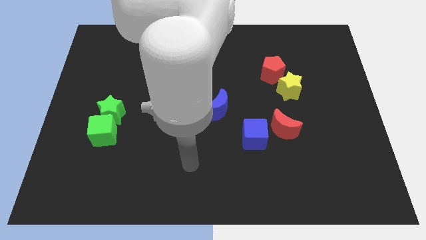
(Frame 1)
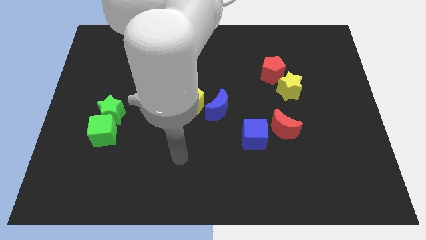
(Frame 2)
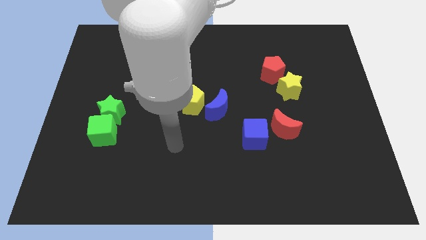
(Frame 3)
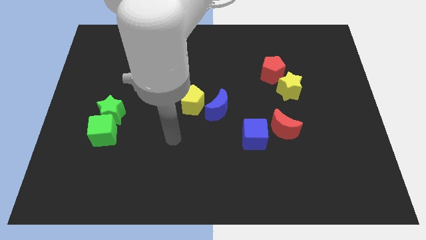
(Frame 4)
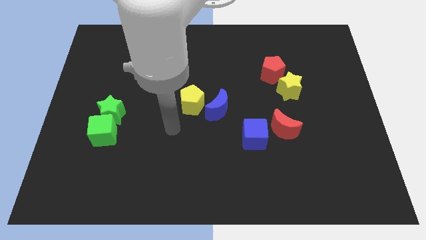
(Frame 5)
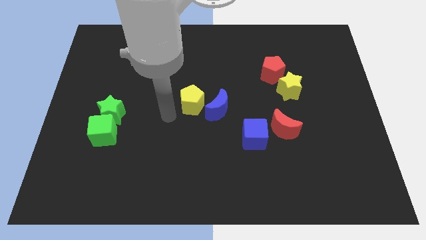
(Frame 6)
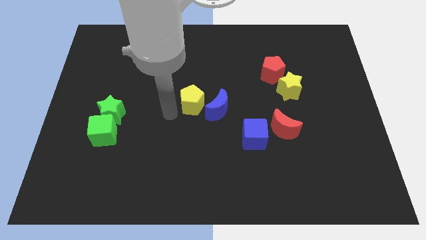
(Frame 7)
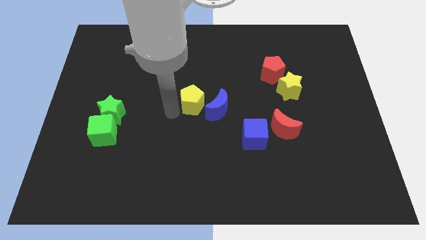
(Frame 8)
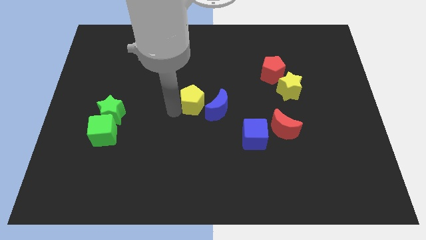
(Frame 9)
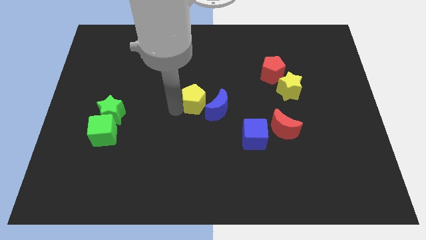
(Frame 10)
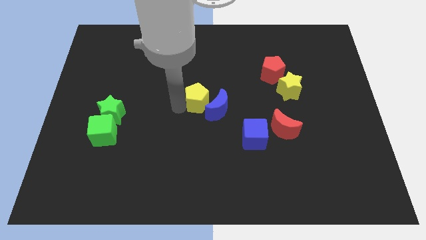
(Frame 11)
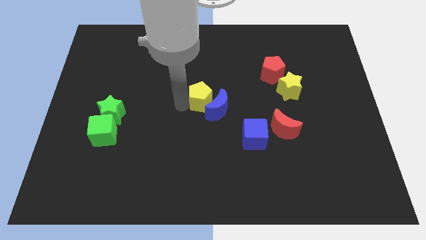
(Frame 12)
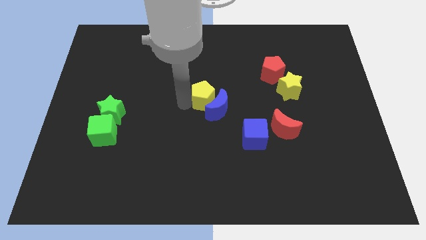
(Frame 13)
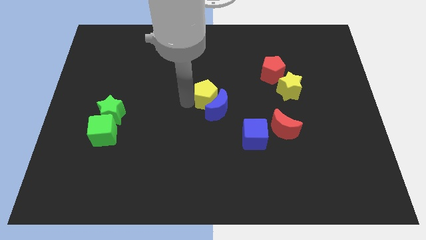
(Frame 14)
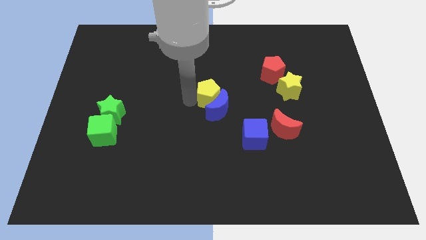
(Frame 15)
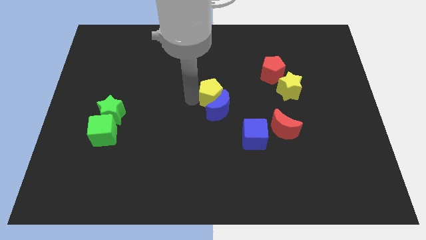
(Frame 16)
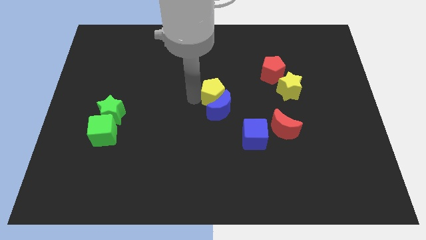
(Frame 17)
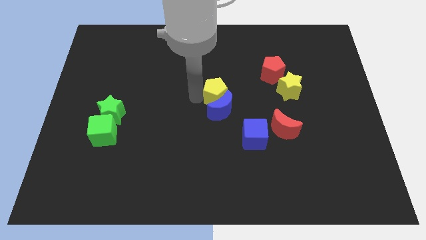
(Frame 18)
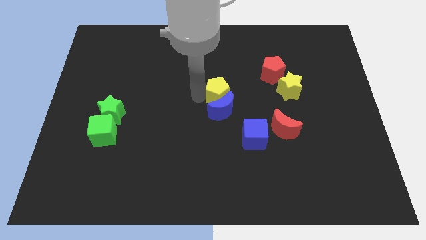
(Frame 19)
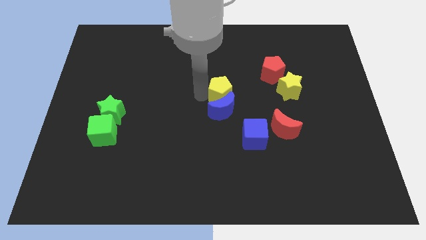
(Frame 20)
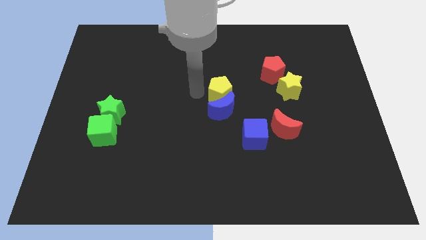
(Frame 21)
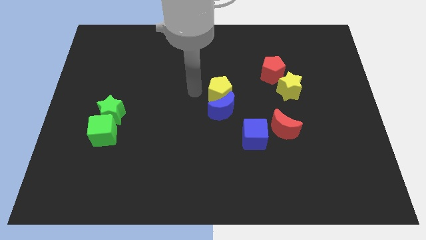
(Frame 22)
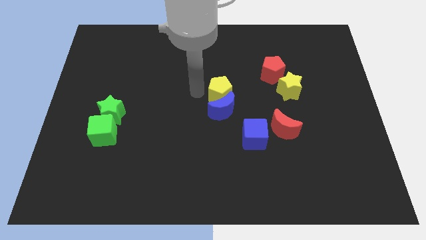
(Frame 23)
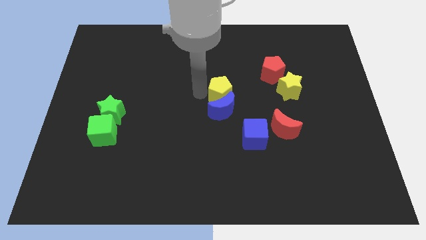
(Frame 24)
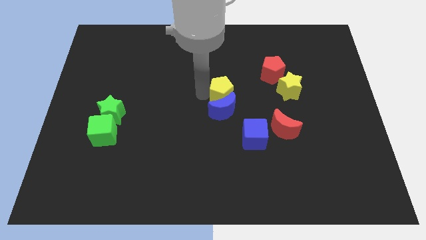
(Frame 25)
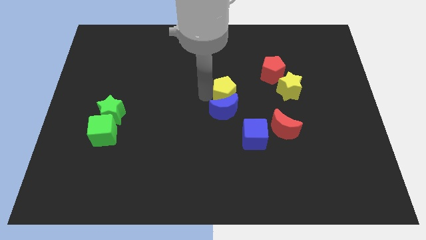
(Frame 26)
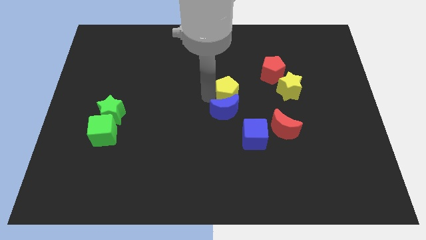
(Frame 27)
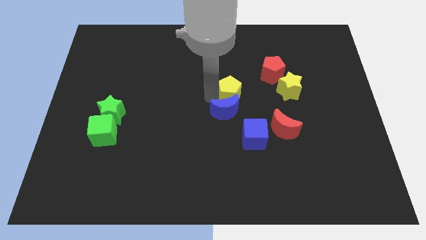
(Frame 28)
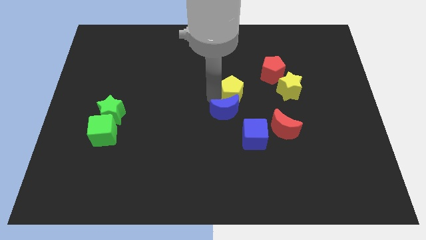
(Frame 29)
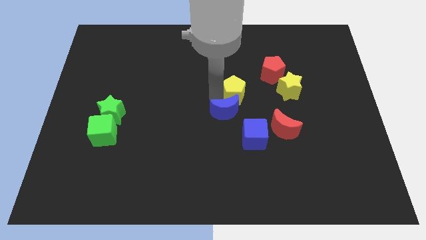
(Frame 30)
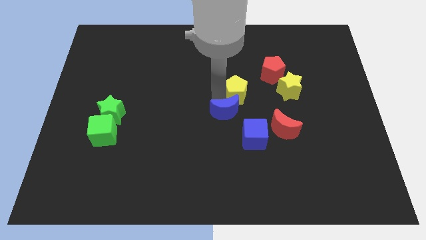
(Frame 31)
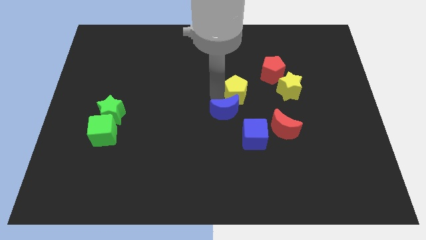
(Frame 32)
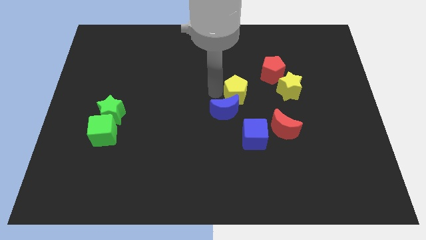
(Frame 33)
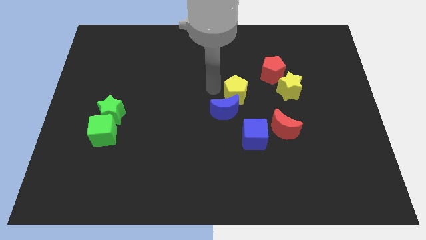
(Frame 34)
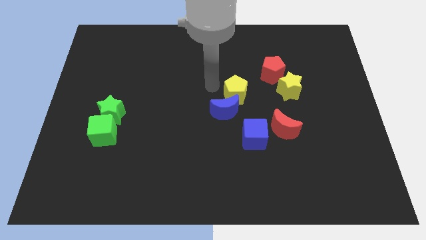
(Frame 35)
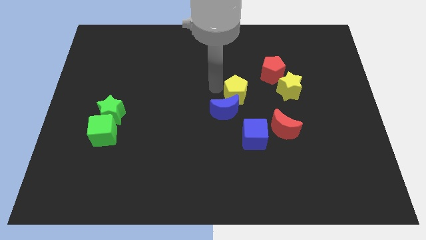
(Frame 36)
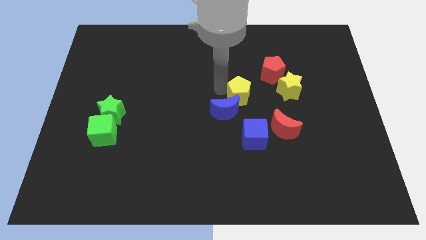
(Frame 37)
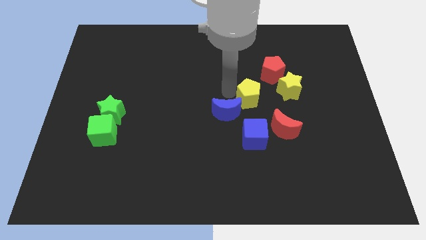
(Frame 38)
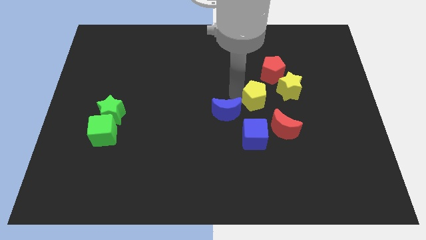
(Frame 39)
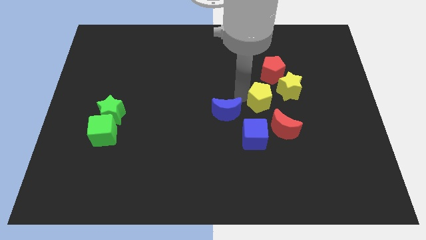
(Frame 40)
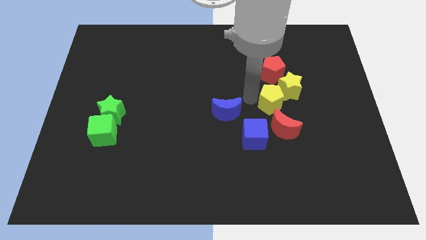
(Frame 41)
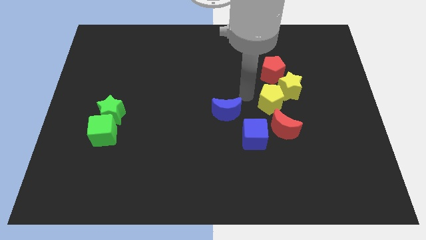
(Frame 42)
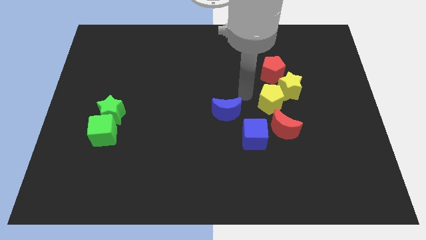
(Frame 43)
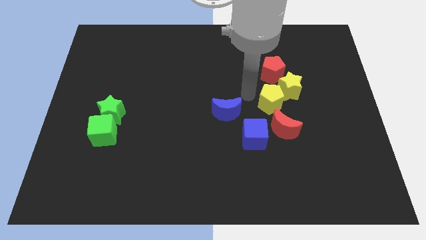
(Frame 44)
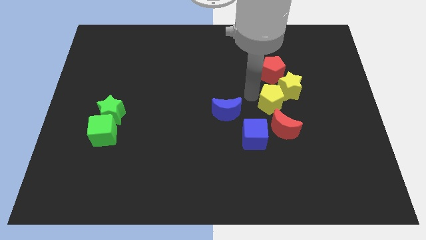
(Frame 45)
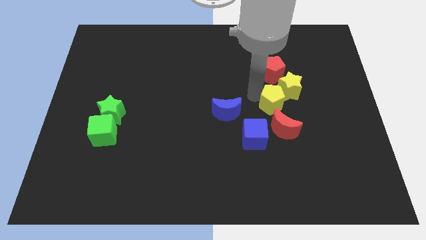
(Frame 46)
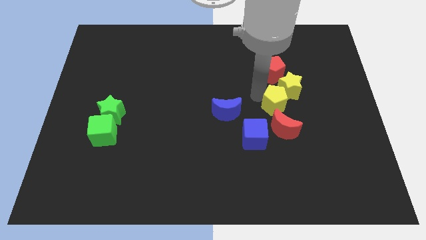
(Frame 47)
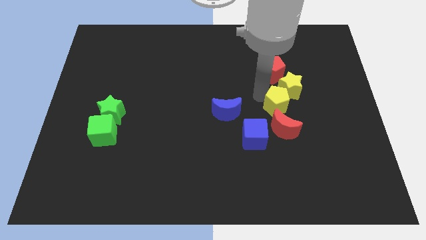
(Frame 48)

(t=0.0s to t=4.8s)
push the yellow pentagon to the right

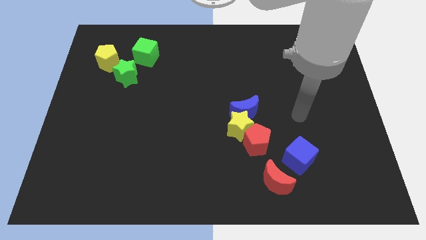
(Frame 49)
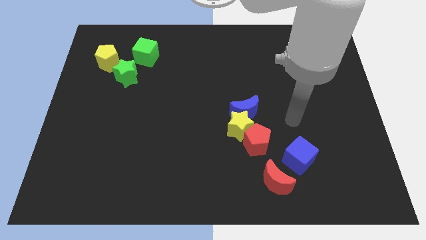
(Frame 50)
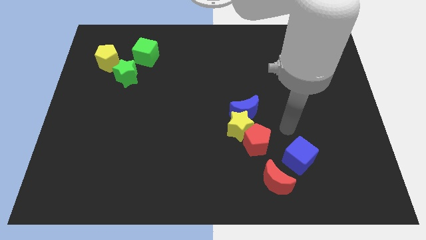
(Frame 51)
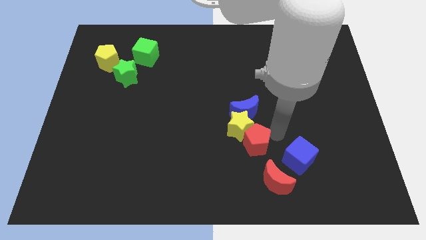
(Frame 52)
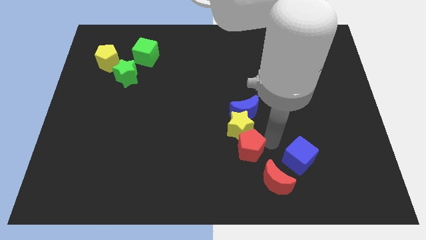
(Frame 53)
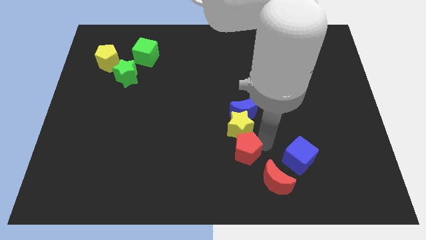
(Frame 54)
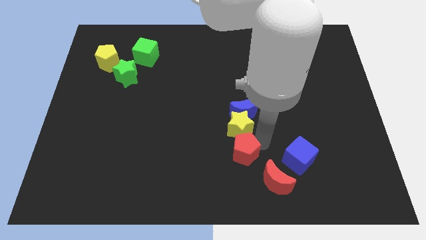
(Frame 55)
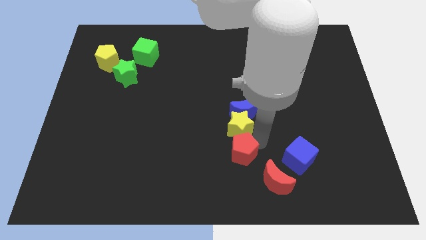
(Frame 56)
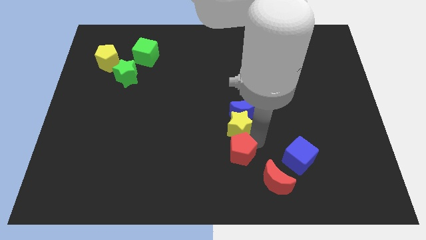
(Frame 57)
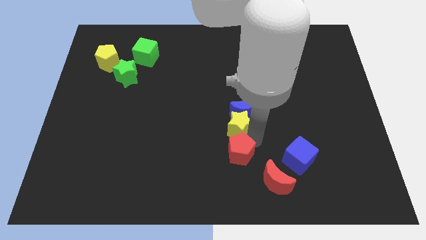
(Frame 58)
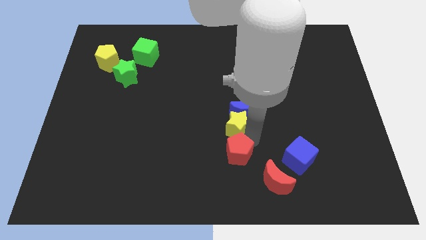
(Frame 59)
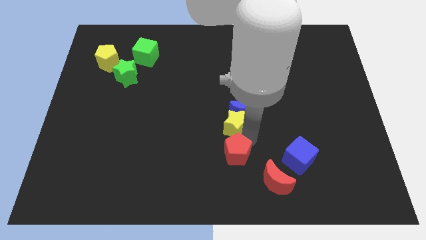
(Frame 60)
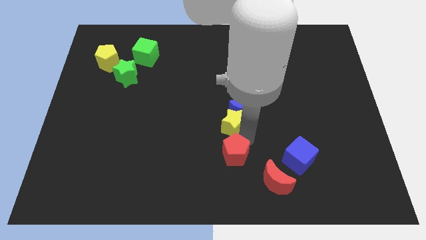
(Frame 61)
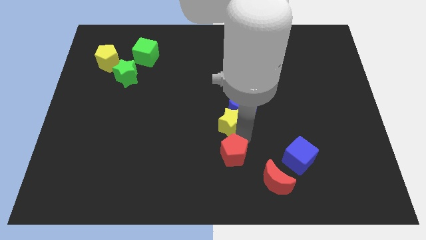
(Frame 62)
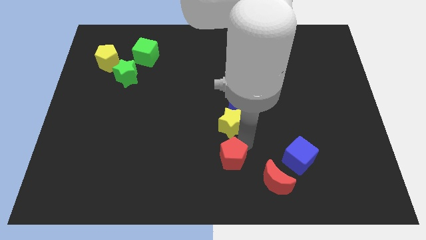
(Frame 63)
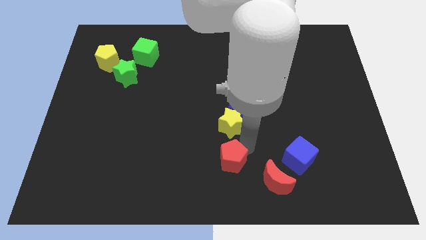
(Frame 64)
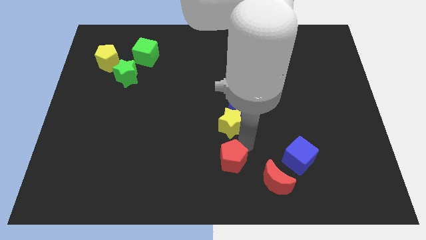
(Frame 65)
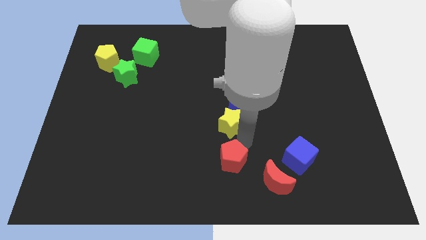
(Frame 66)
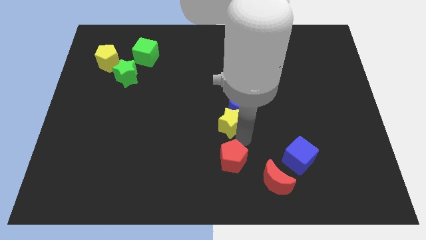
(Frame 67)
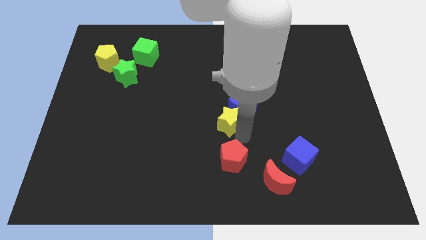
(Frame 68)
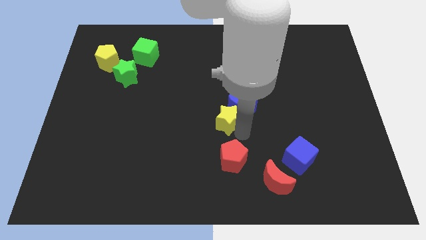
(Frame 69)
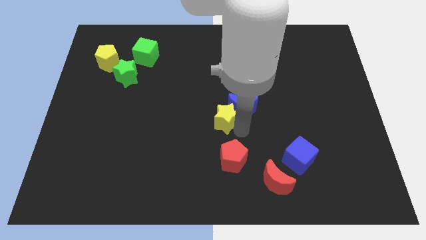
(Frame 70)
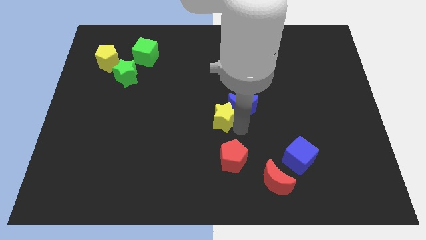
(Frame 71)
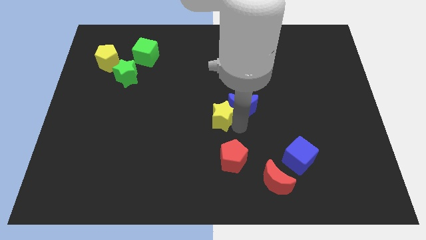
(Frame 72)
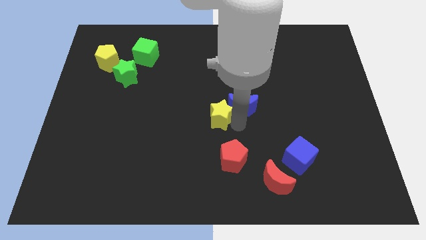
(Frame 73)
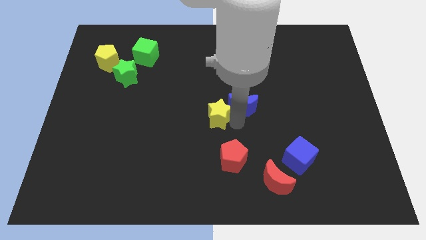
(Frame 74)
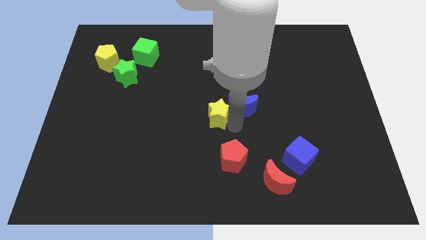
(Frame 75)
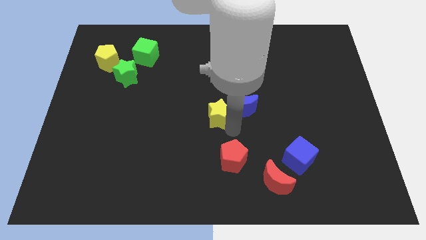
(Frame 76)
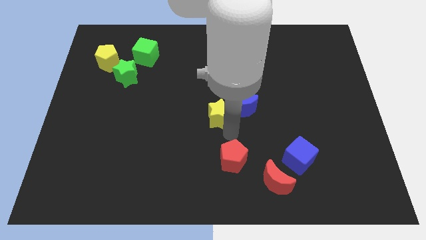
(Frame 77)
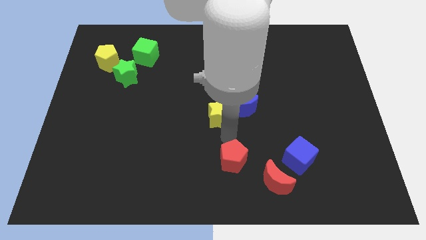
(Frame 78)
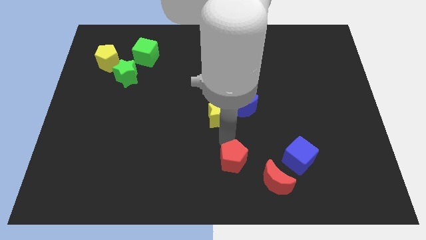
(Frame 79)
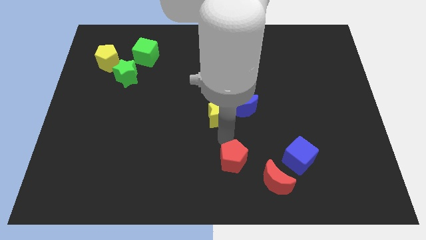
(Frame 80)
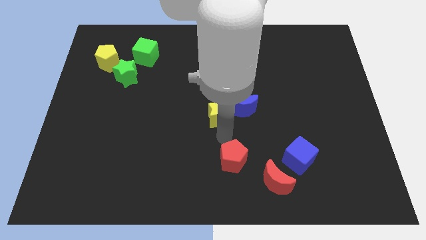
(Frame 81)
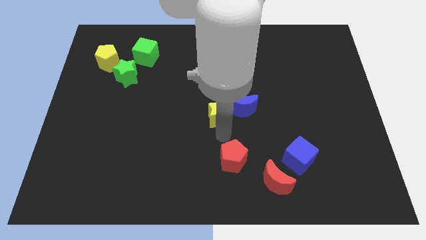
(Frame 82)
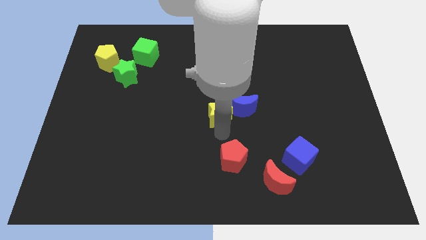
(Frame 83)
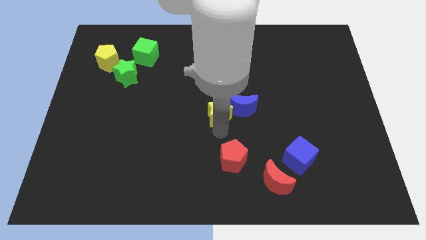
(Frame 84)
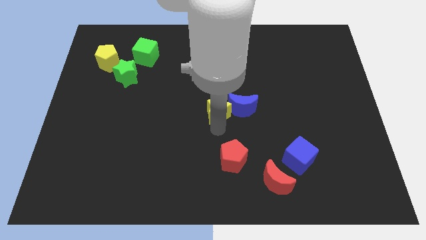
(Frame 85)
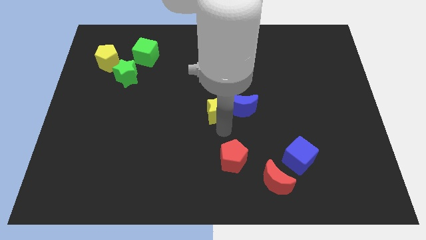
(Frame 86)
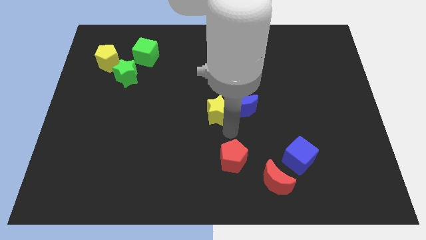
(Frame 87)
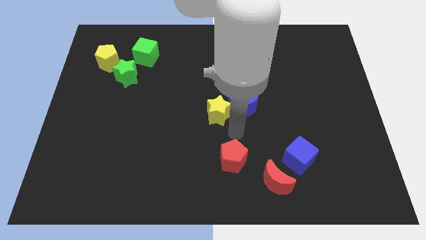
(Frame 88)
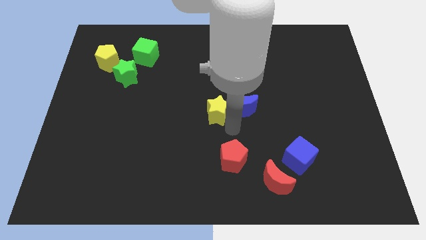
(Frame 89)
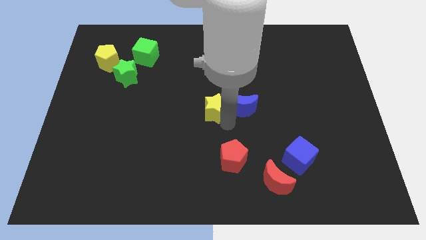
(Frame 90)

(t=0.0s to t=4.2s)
push the yellow star up and then to the left a little
